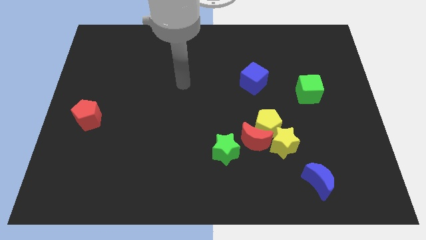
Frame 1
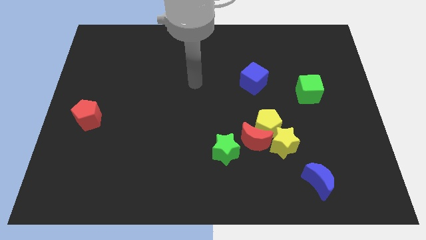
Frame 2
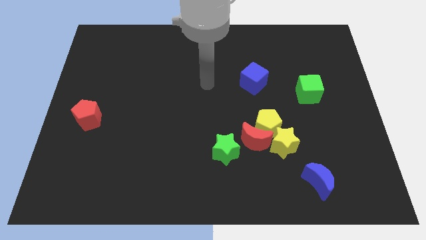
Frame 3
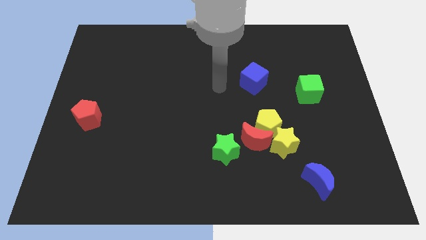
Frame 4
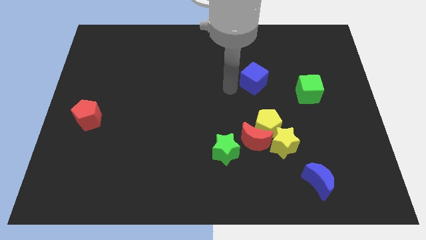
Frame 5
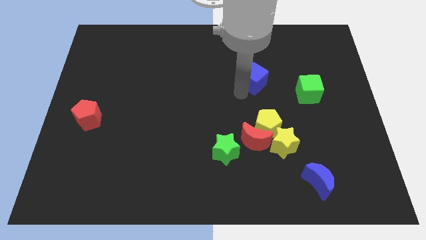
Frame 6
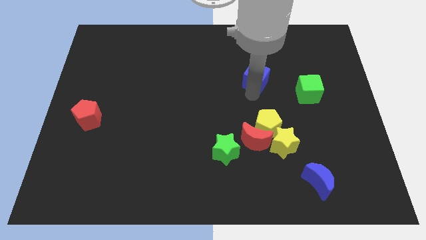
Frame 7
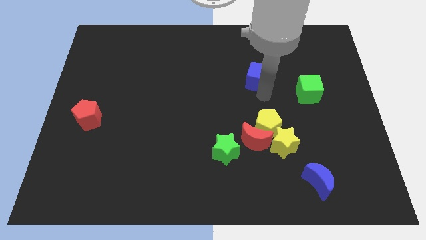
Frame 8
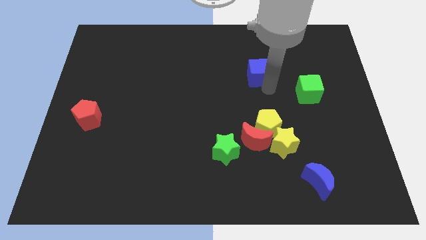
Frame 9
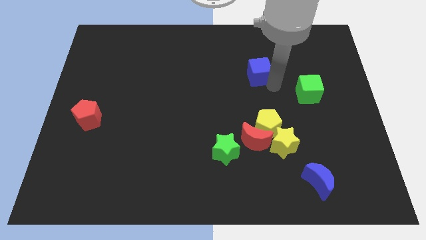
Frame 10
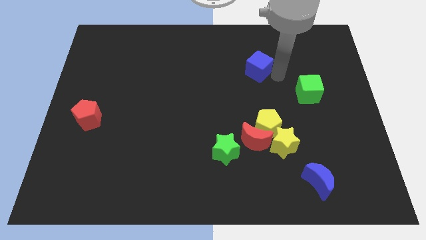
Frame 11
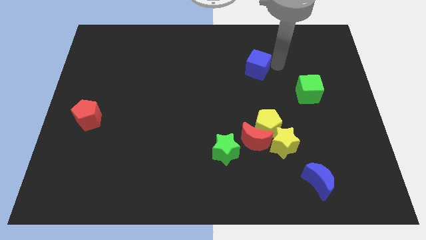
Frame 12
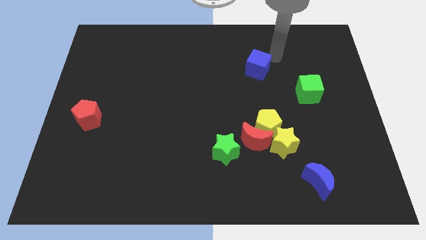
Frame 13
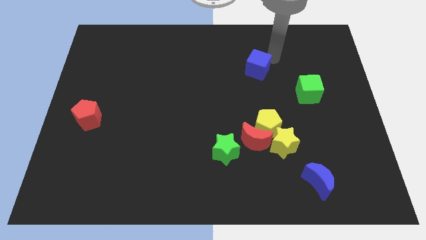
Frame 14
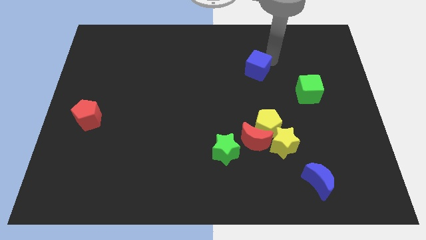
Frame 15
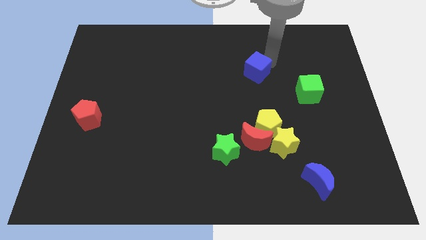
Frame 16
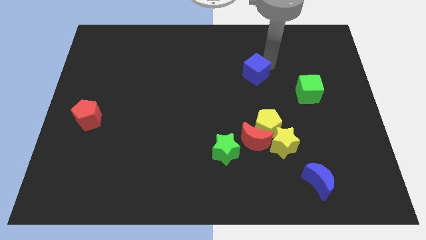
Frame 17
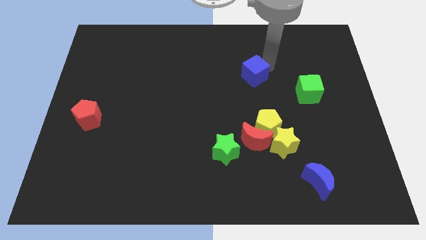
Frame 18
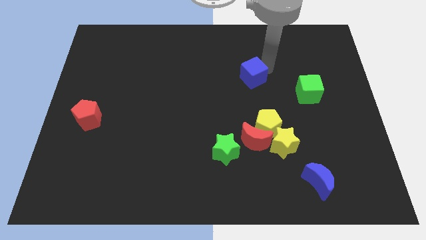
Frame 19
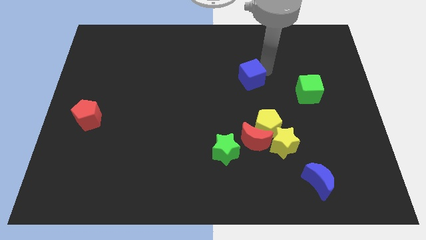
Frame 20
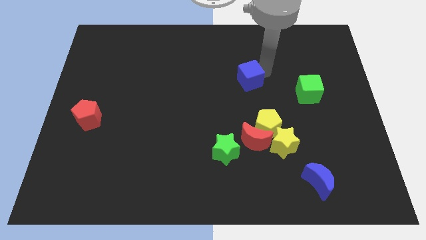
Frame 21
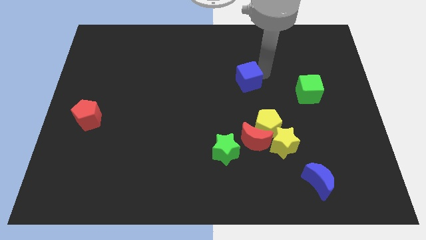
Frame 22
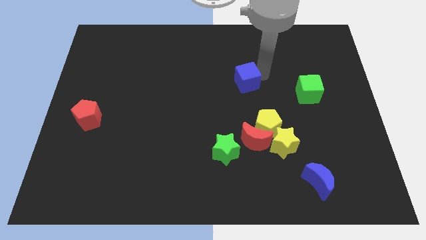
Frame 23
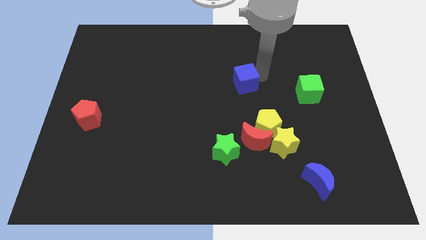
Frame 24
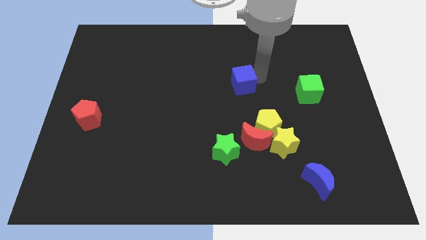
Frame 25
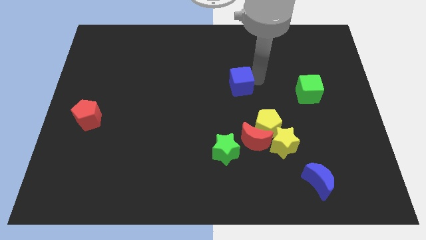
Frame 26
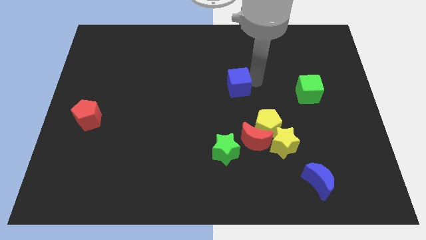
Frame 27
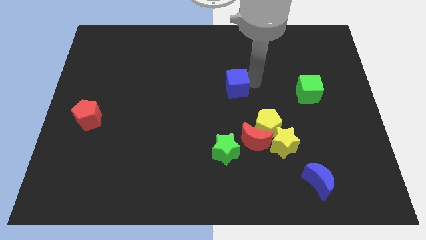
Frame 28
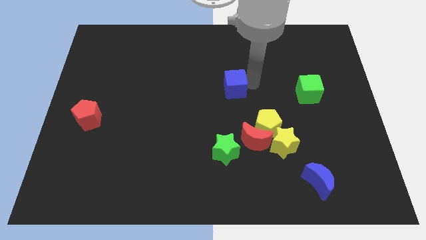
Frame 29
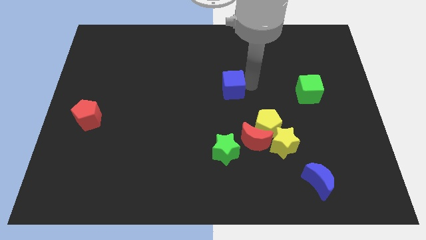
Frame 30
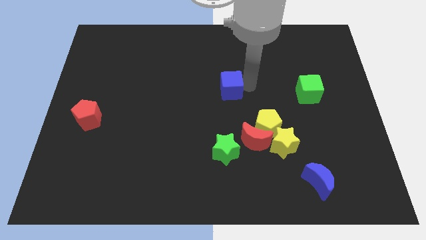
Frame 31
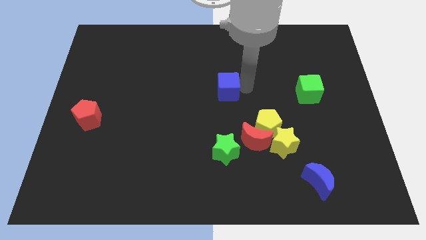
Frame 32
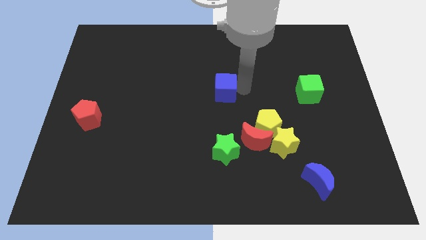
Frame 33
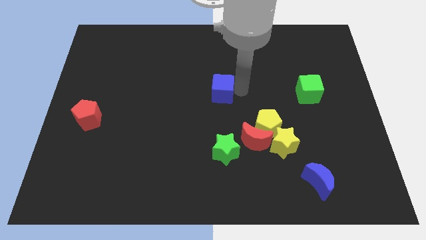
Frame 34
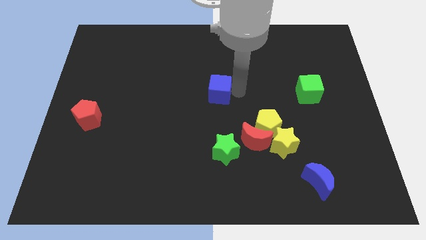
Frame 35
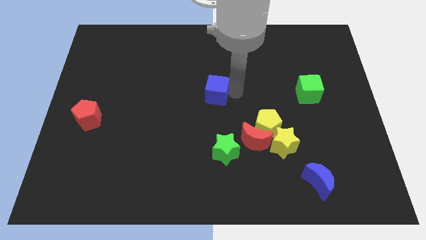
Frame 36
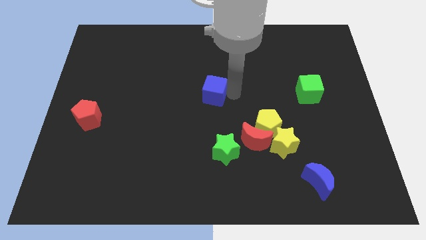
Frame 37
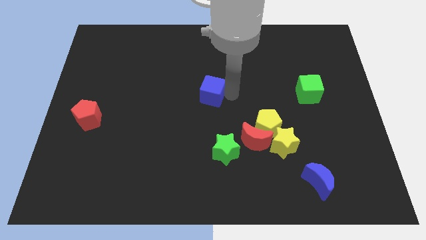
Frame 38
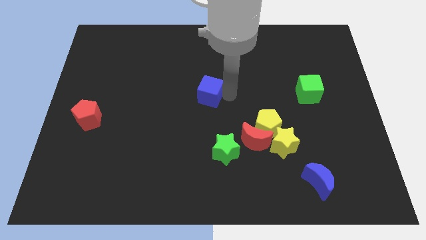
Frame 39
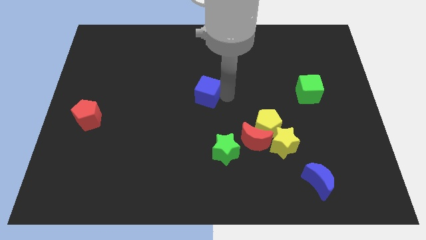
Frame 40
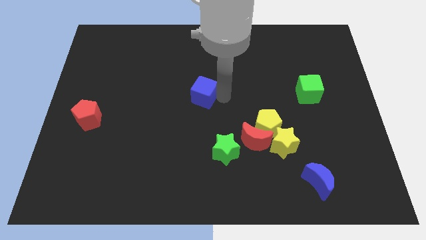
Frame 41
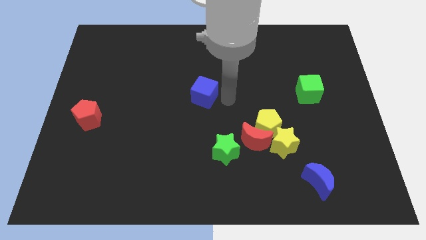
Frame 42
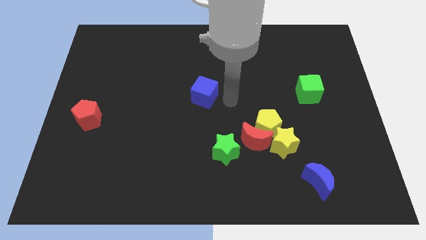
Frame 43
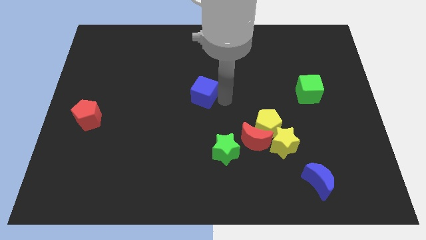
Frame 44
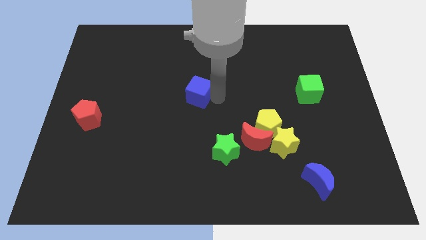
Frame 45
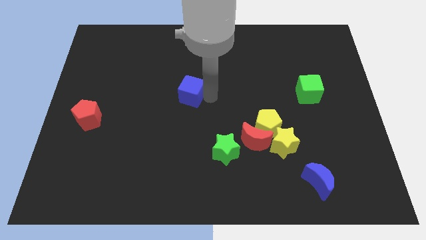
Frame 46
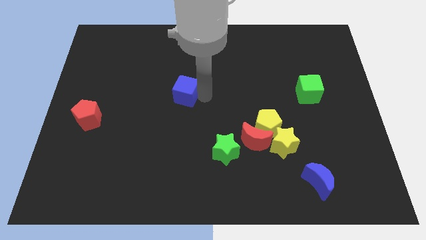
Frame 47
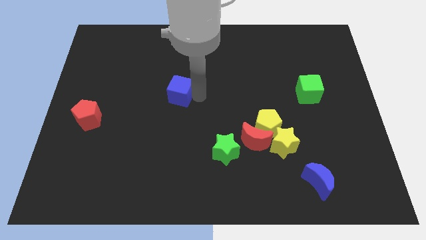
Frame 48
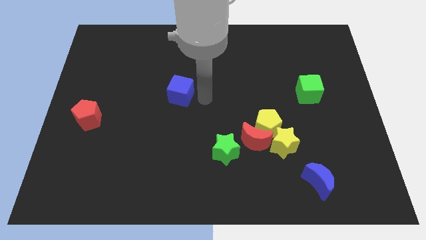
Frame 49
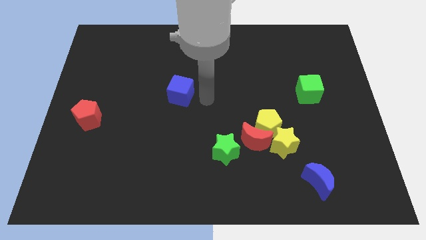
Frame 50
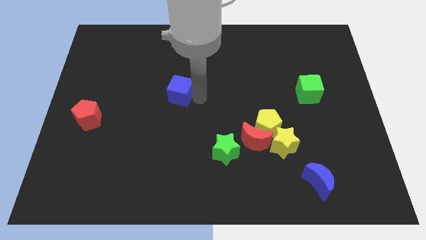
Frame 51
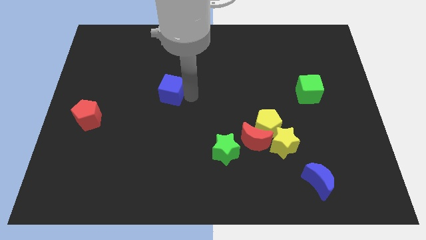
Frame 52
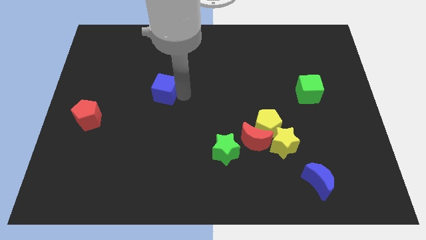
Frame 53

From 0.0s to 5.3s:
slide the blue cube to the left

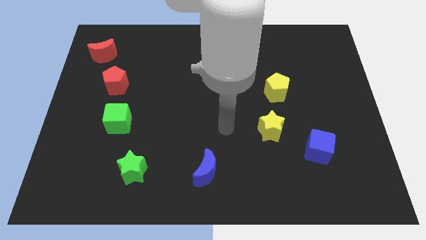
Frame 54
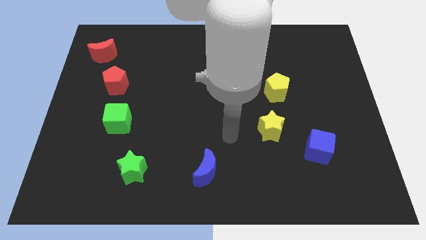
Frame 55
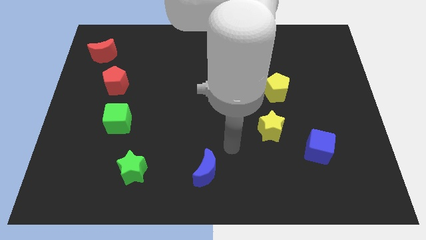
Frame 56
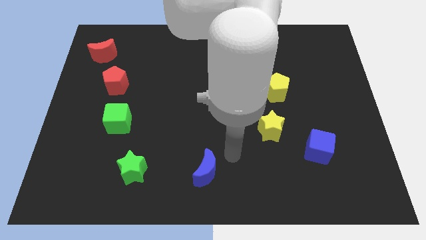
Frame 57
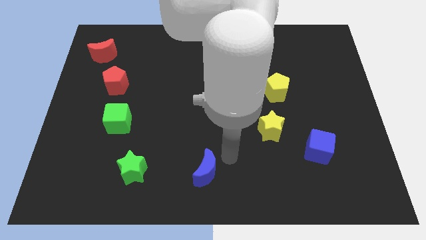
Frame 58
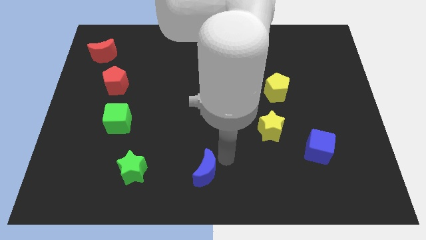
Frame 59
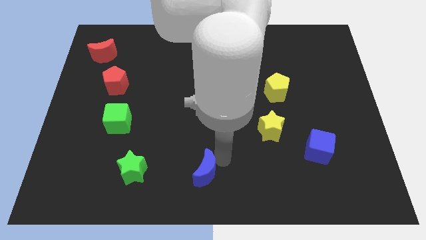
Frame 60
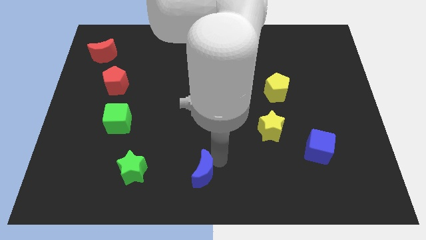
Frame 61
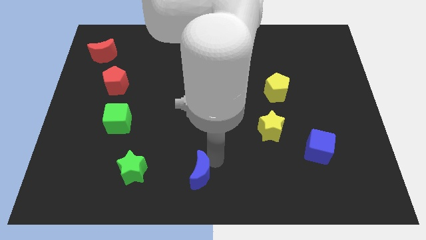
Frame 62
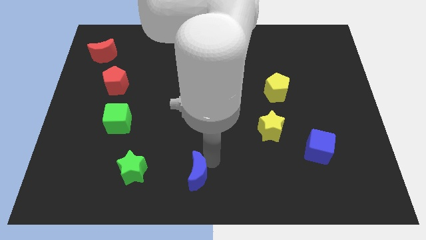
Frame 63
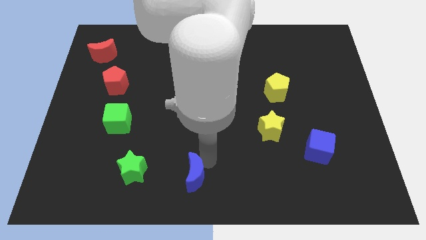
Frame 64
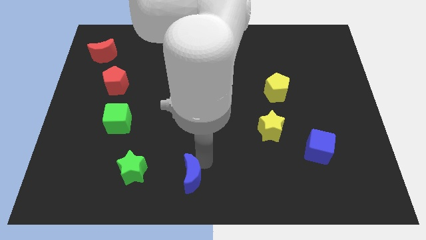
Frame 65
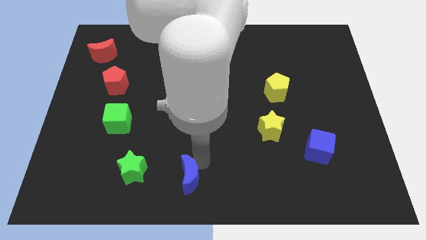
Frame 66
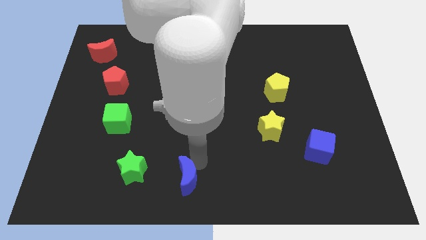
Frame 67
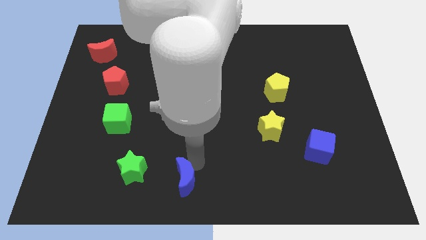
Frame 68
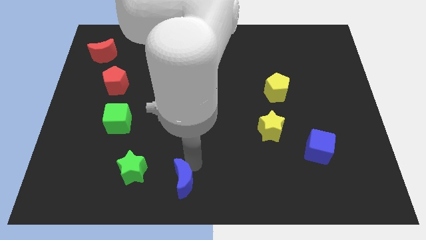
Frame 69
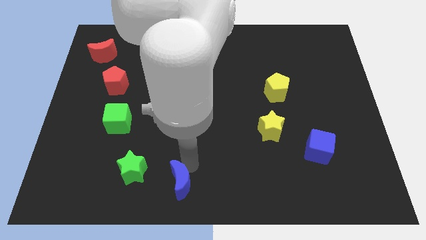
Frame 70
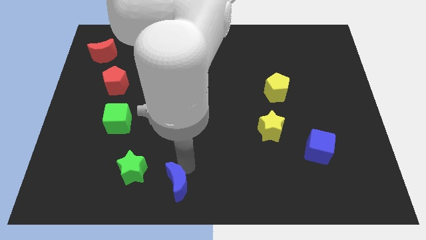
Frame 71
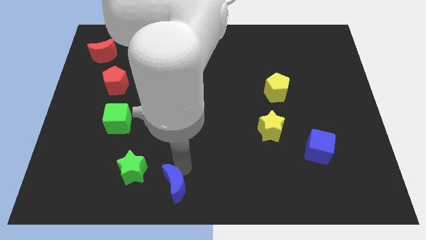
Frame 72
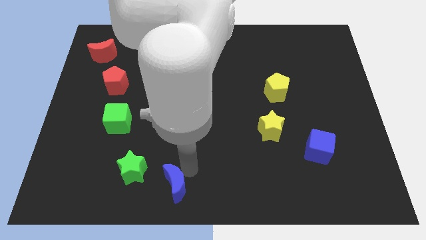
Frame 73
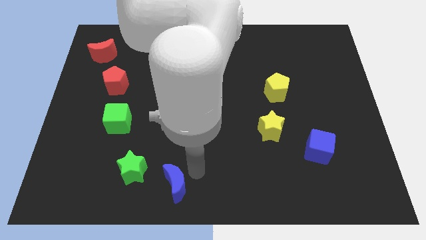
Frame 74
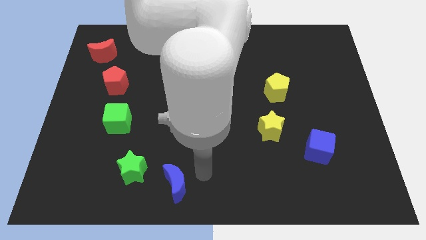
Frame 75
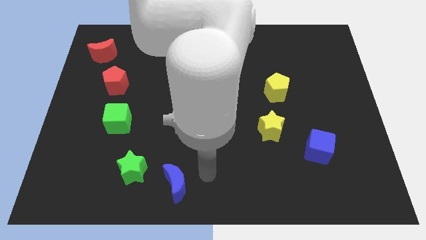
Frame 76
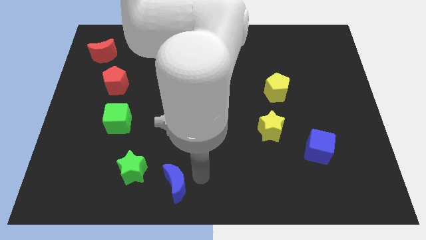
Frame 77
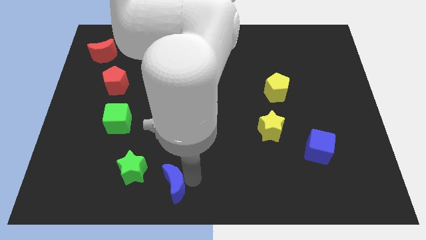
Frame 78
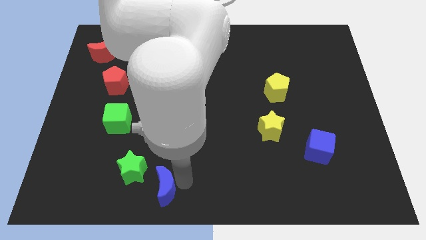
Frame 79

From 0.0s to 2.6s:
slightly push the blue moon to the left
